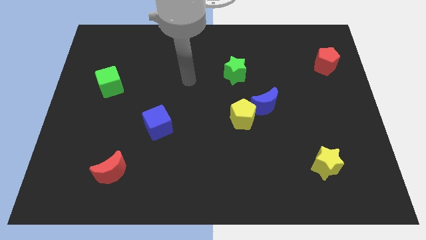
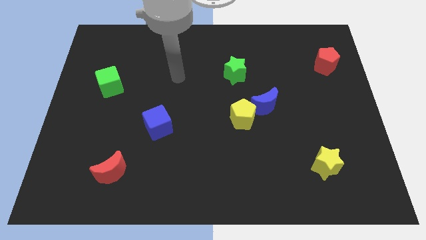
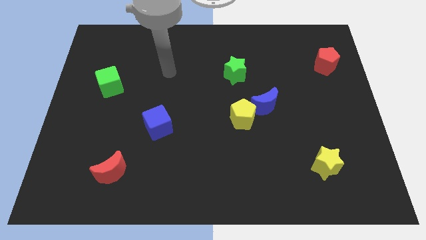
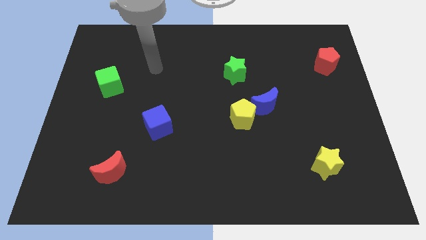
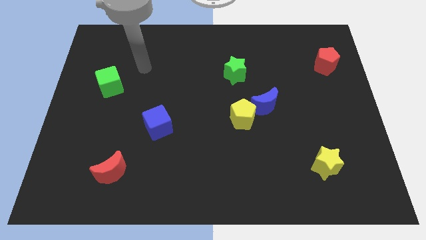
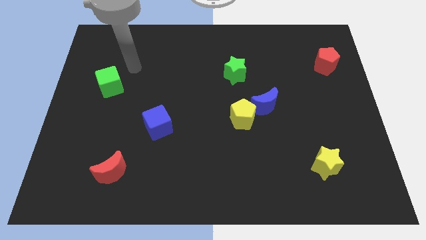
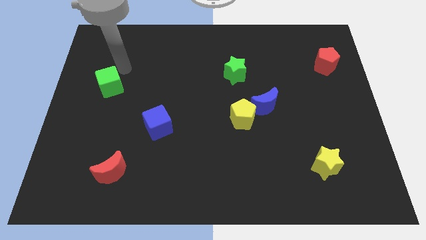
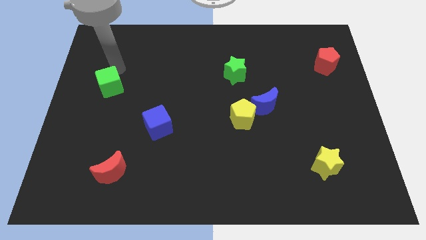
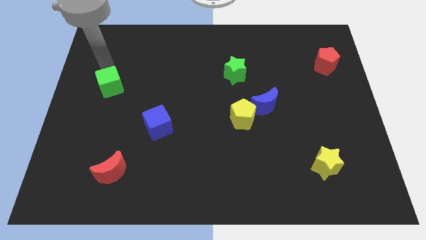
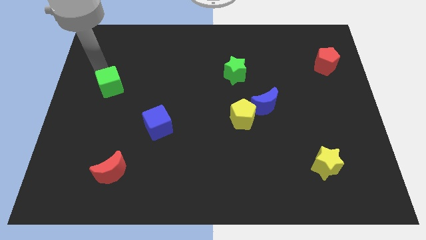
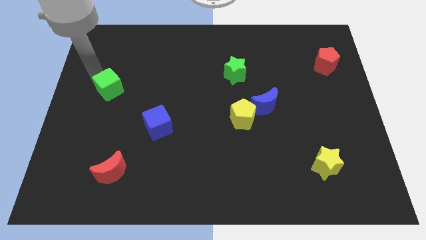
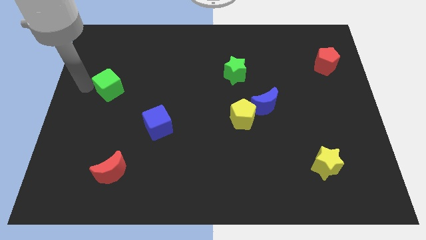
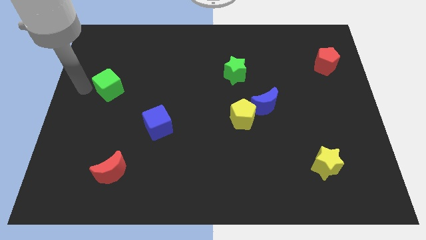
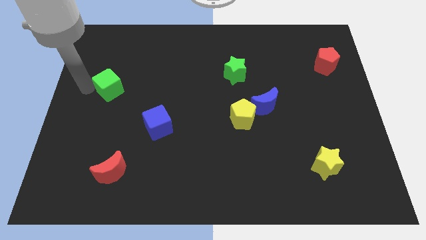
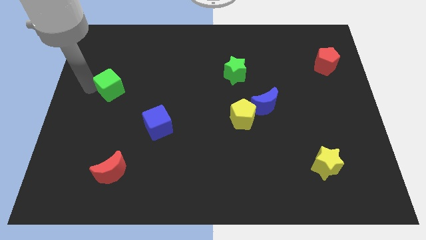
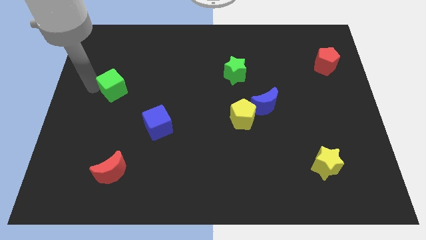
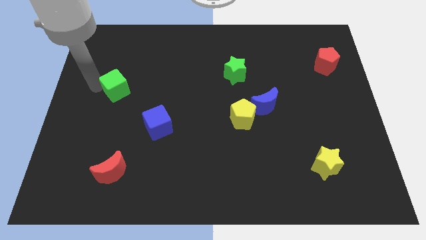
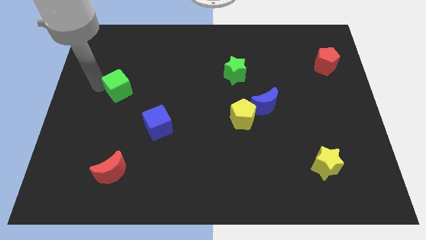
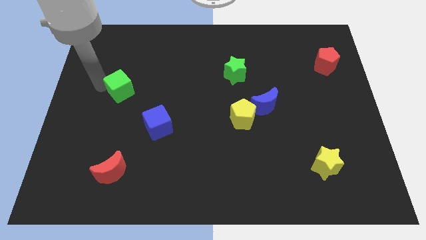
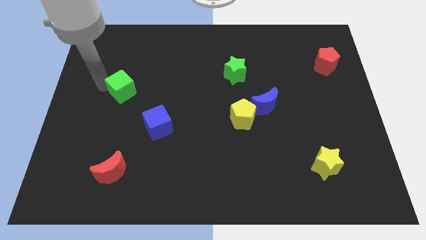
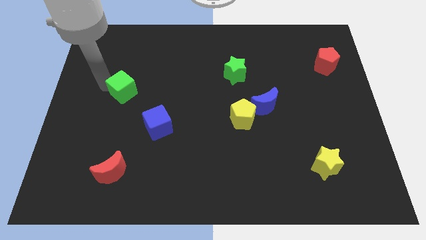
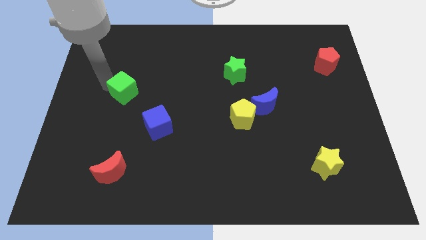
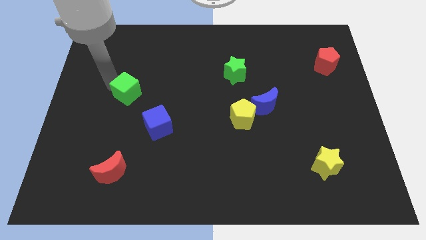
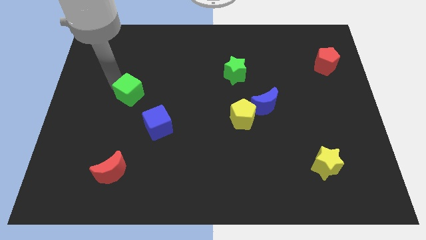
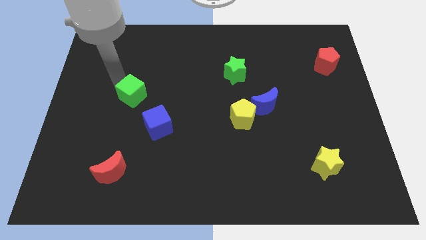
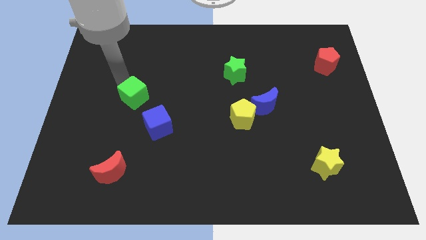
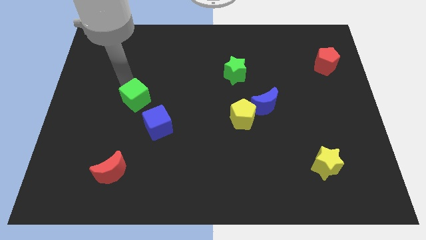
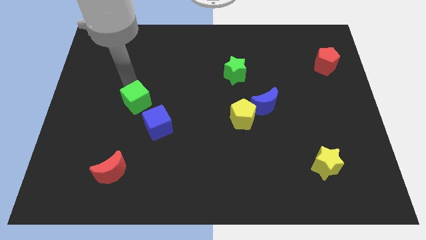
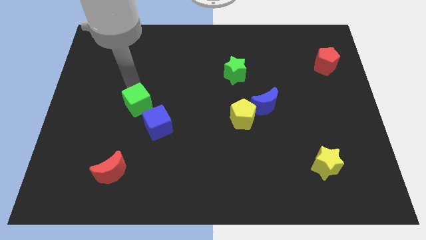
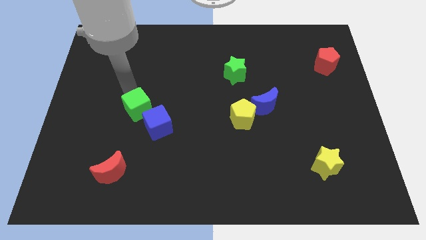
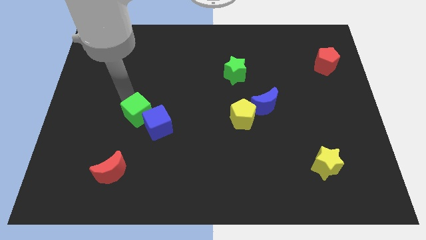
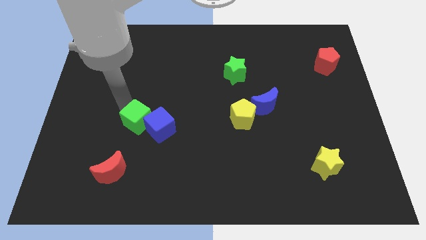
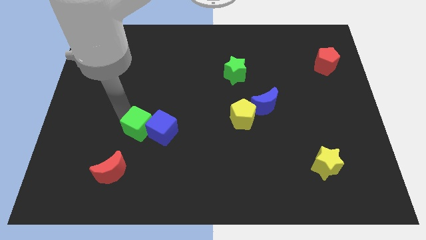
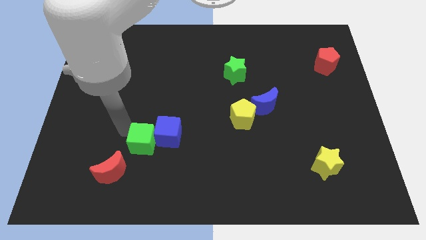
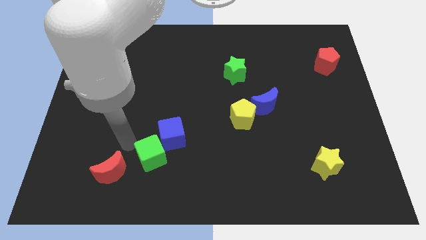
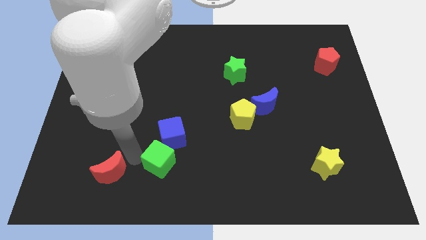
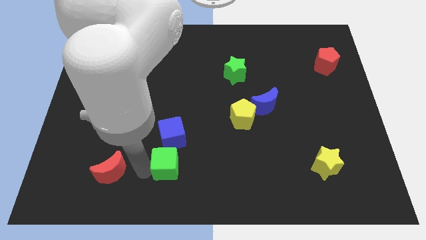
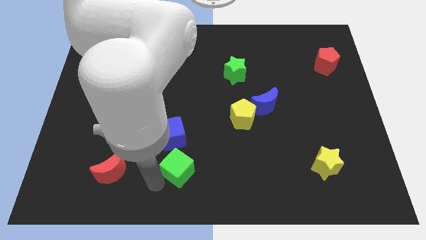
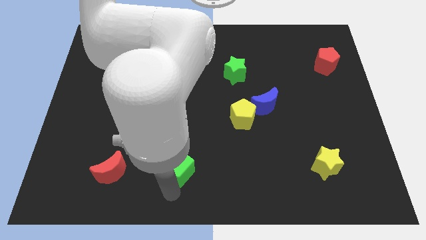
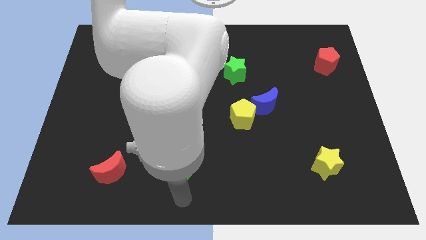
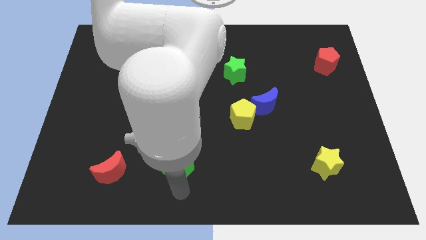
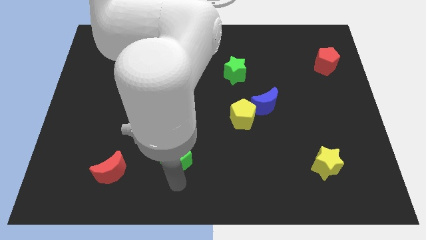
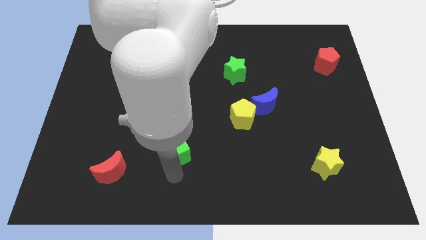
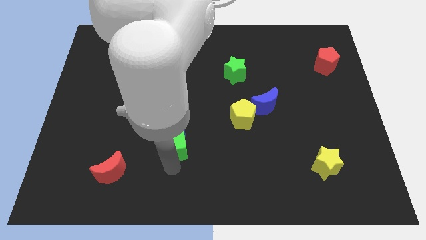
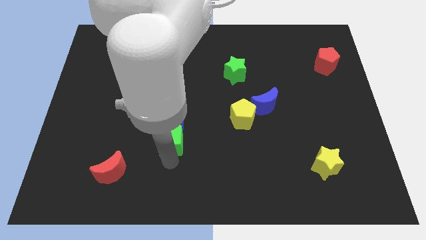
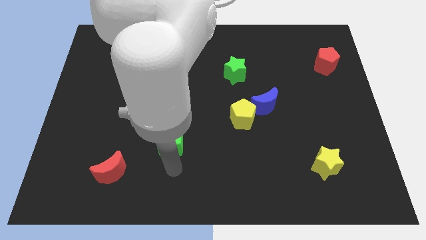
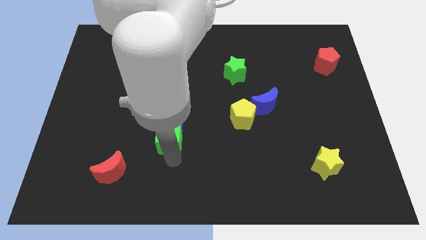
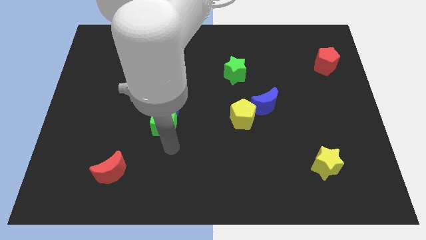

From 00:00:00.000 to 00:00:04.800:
slightly slide the green cube right

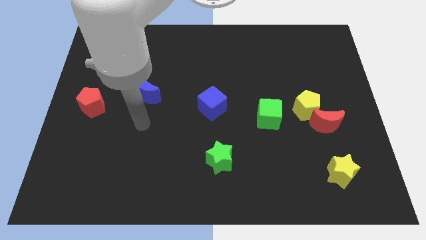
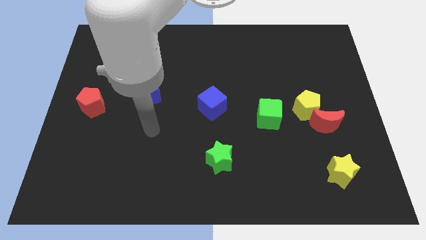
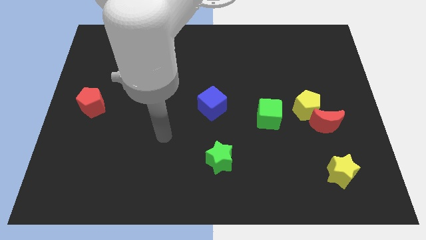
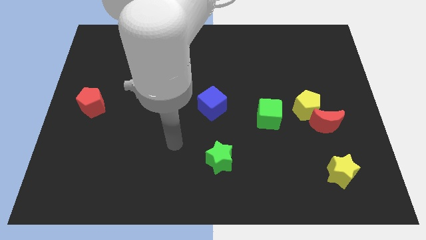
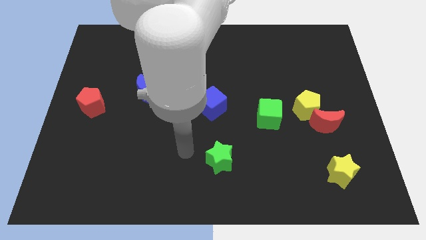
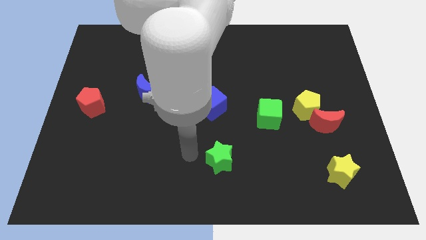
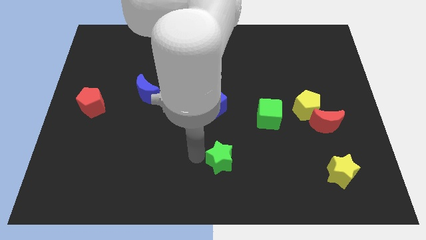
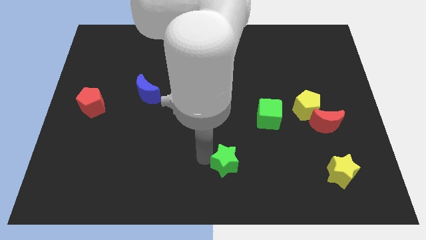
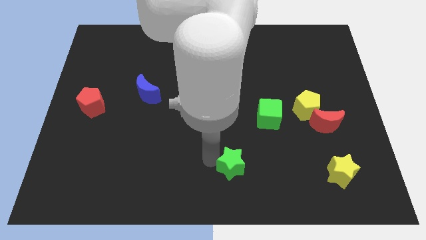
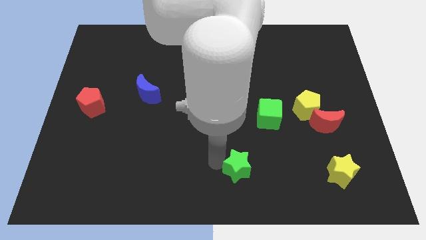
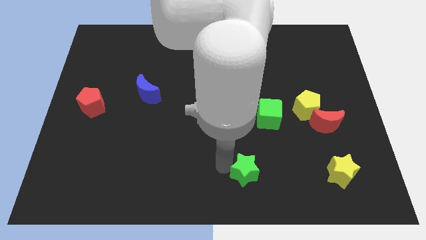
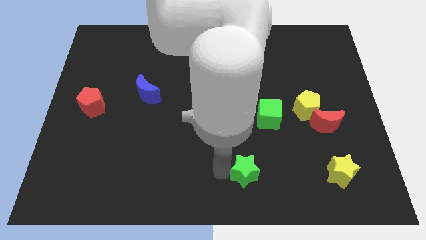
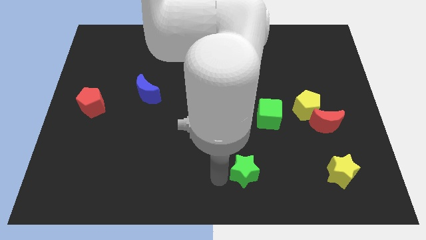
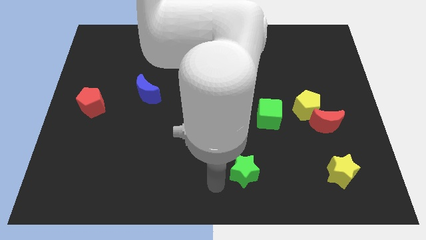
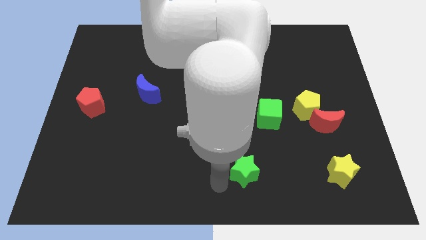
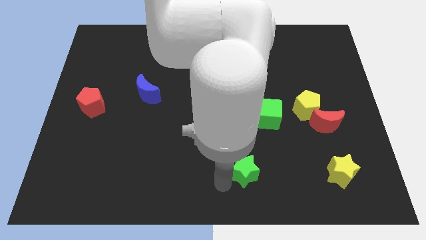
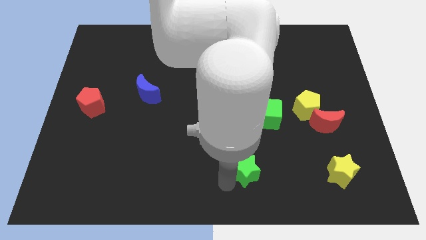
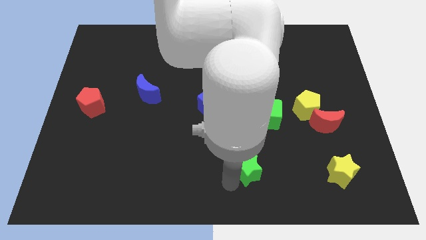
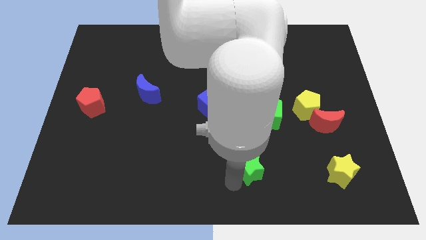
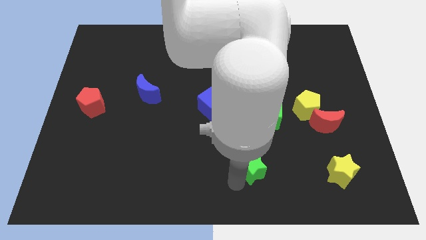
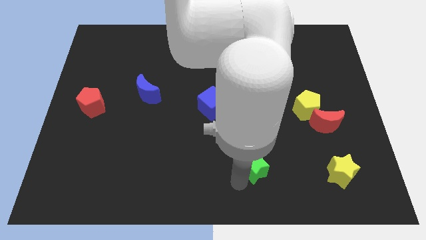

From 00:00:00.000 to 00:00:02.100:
move the green star to the right somewhat

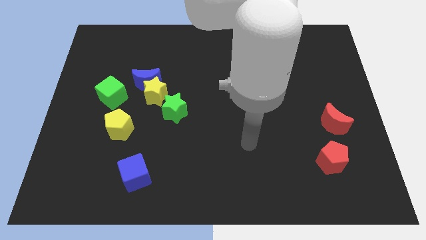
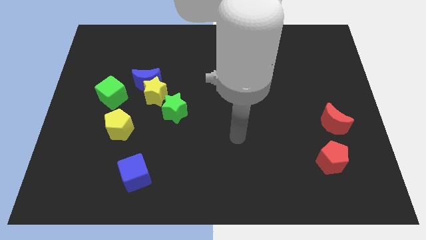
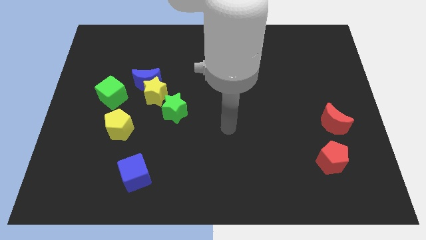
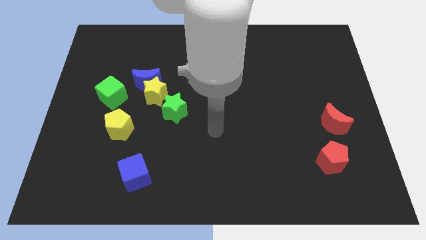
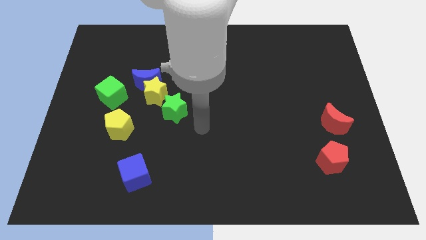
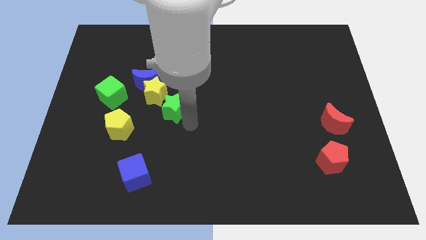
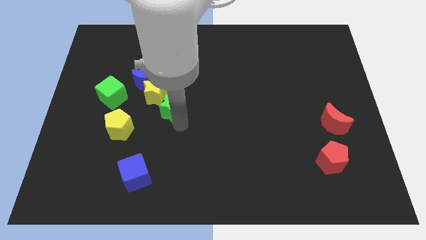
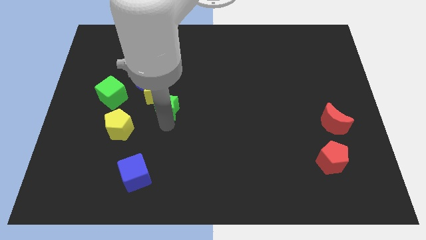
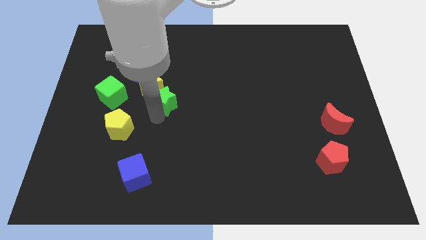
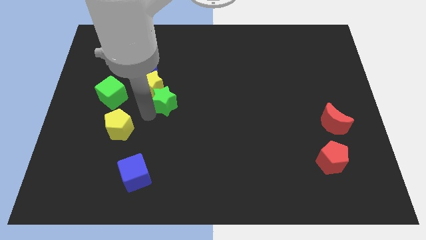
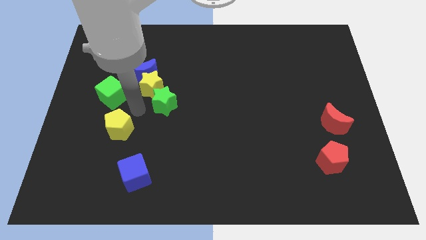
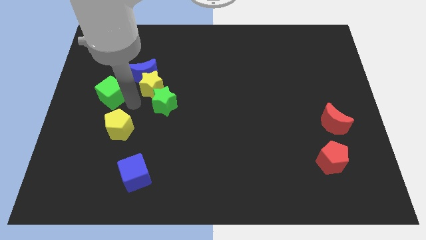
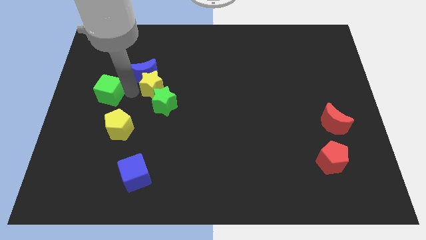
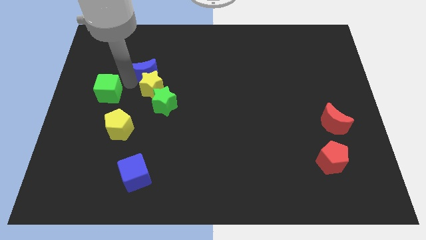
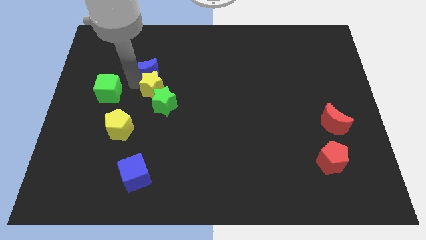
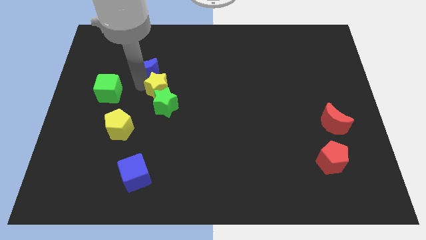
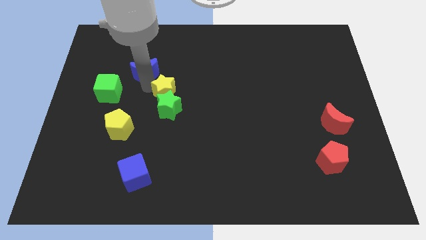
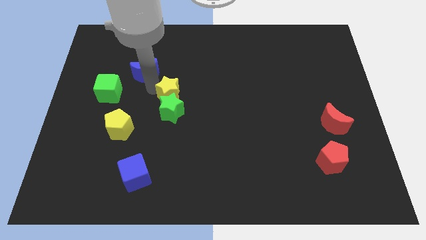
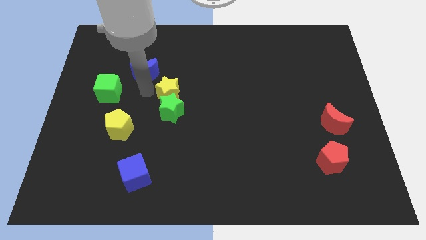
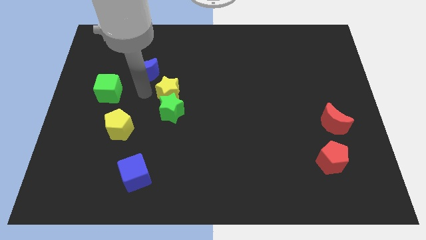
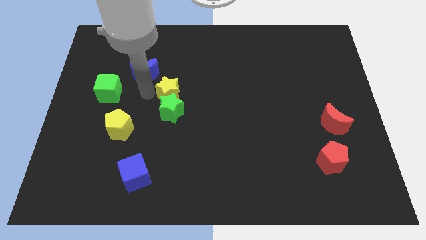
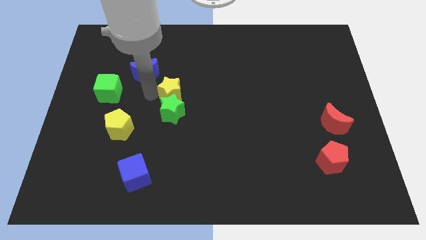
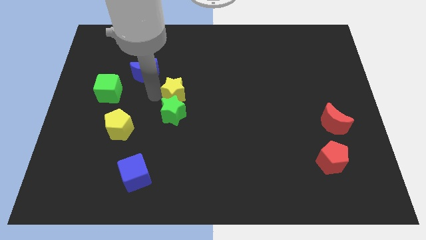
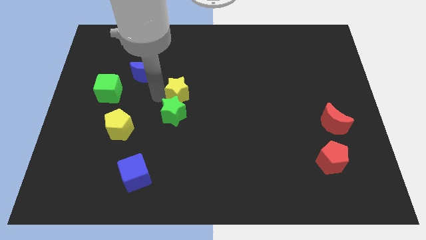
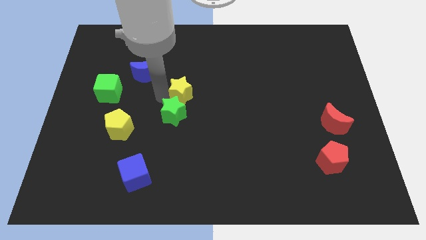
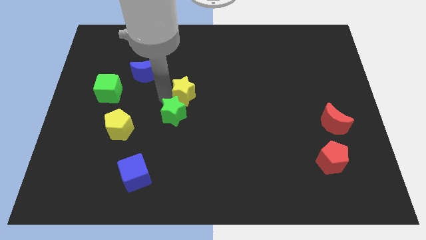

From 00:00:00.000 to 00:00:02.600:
slightly slide the yellow star to the right
